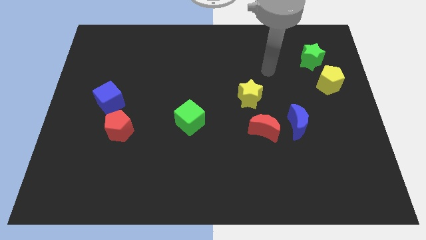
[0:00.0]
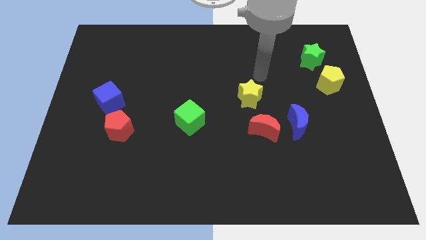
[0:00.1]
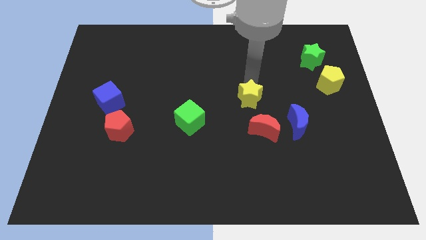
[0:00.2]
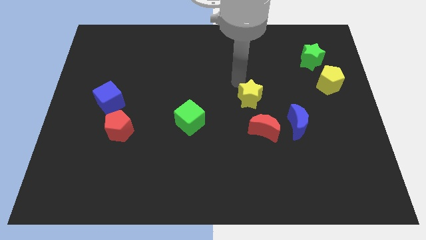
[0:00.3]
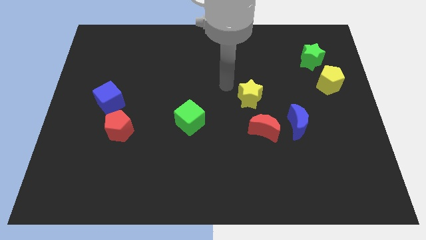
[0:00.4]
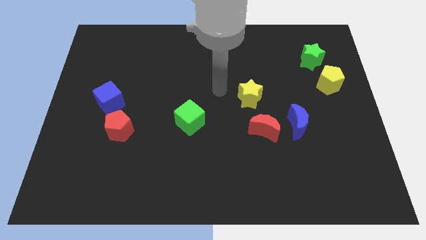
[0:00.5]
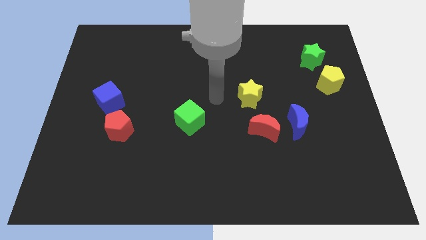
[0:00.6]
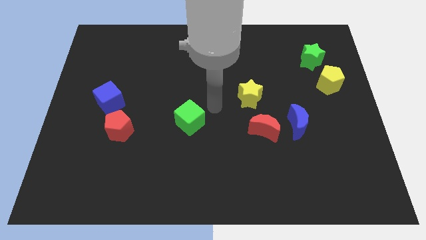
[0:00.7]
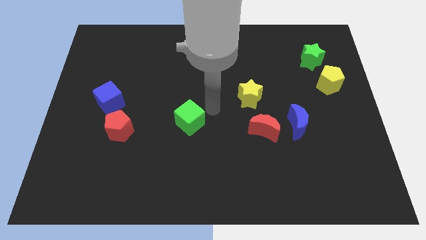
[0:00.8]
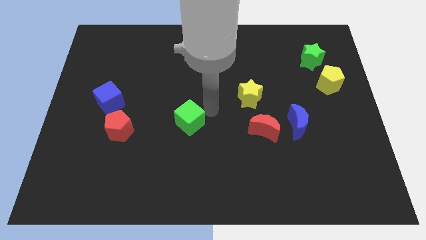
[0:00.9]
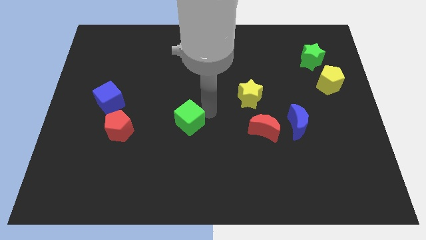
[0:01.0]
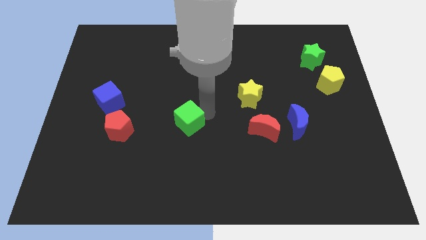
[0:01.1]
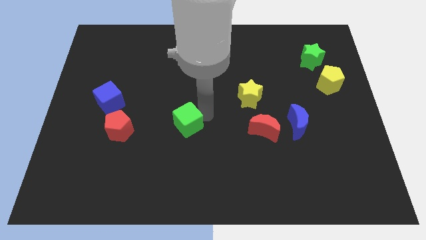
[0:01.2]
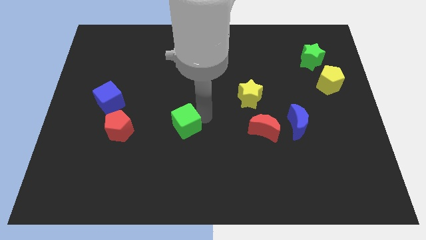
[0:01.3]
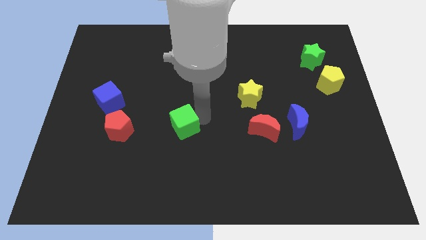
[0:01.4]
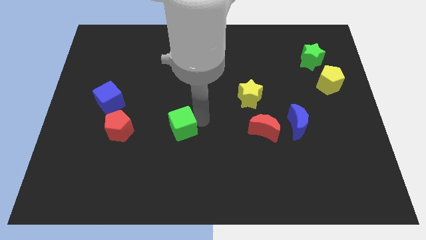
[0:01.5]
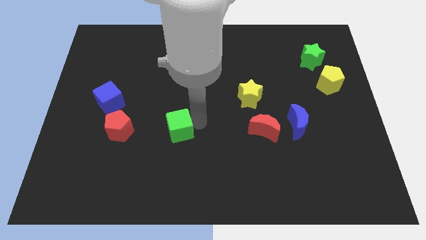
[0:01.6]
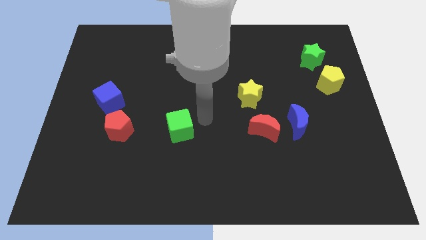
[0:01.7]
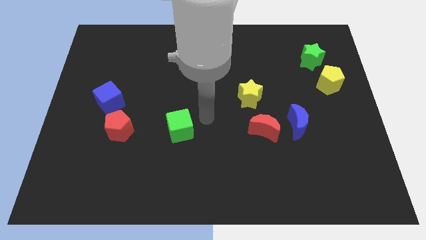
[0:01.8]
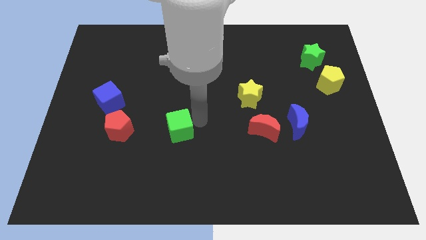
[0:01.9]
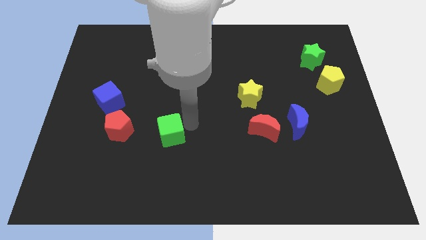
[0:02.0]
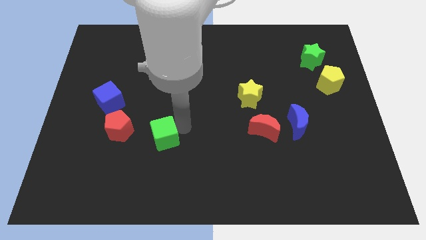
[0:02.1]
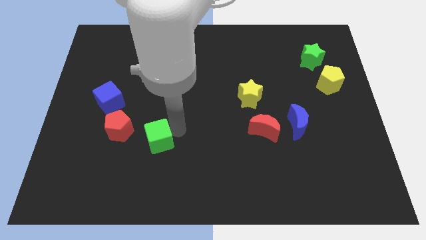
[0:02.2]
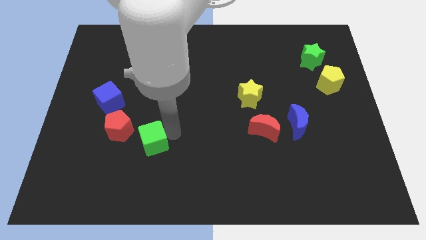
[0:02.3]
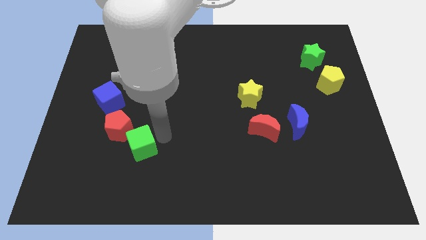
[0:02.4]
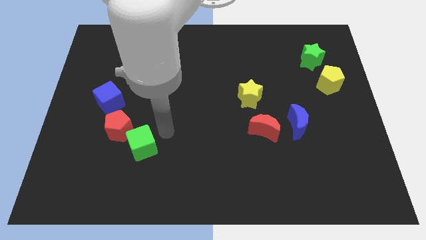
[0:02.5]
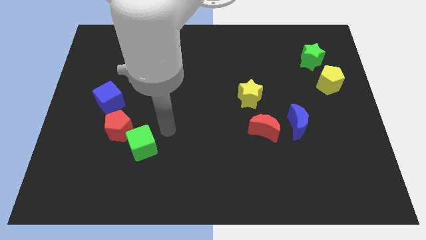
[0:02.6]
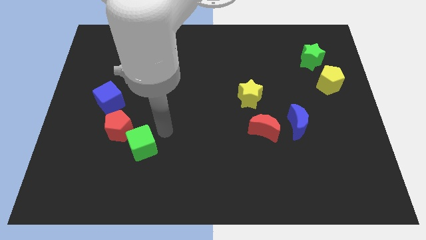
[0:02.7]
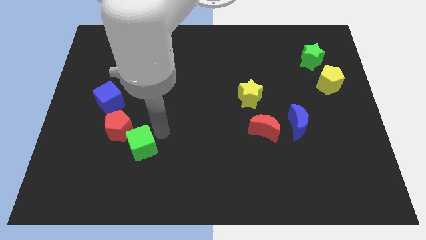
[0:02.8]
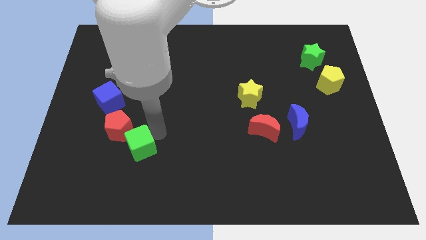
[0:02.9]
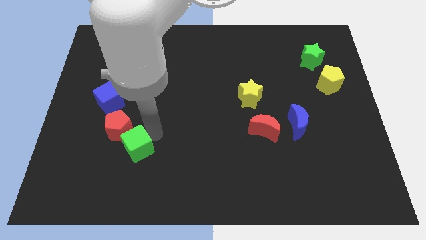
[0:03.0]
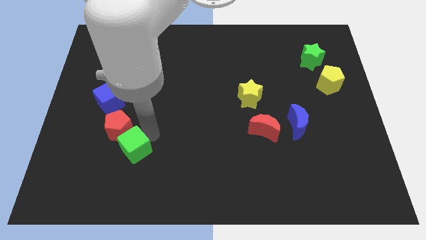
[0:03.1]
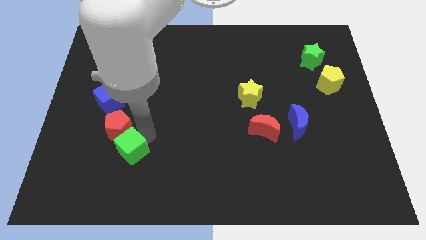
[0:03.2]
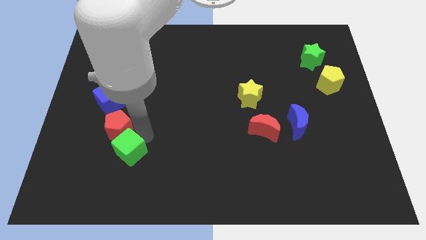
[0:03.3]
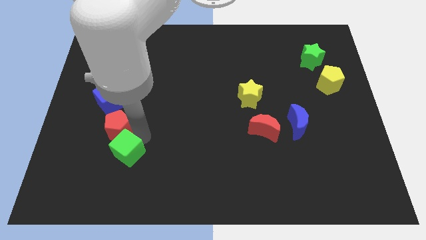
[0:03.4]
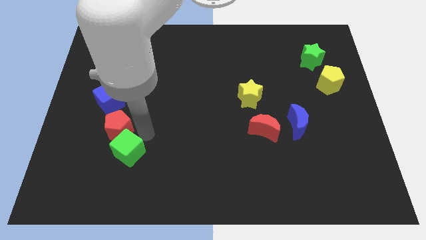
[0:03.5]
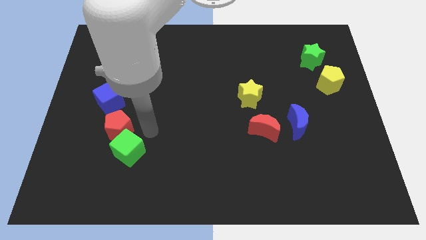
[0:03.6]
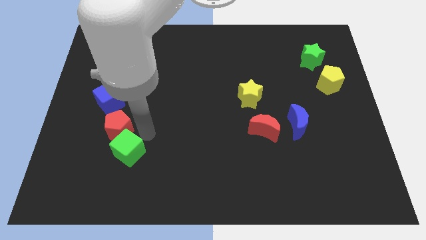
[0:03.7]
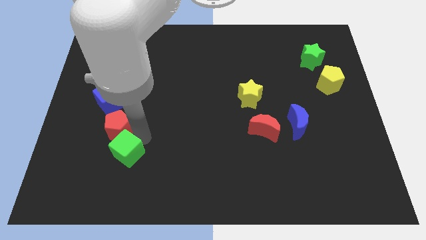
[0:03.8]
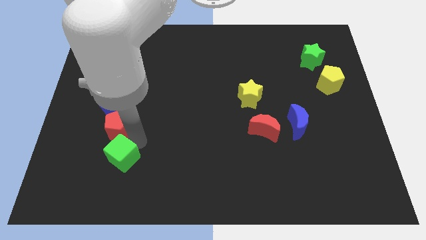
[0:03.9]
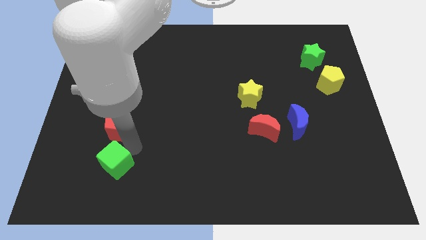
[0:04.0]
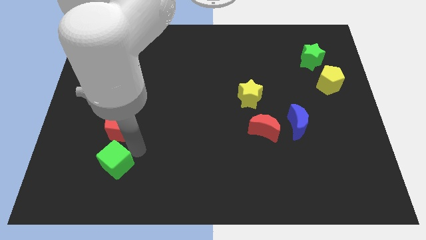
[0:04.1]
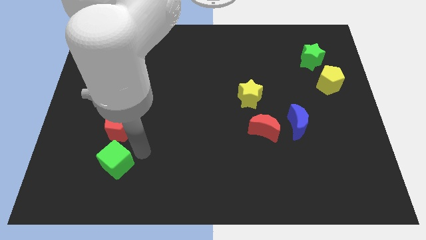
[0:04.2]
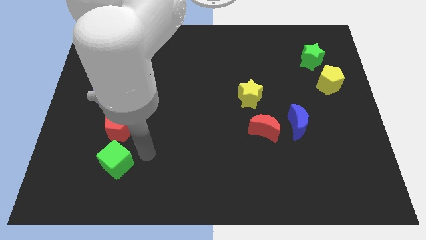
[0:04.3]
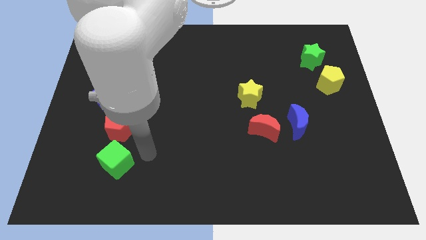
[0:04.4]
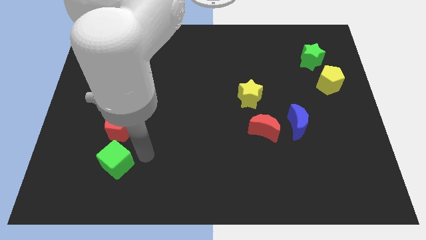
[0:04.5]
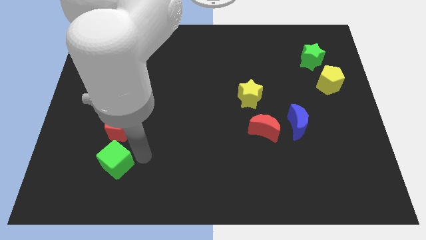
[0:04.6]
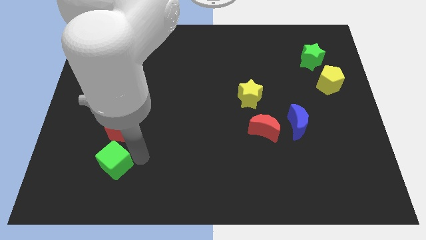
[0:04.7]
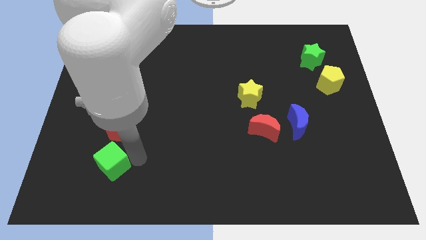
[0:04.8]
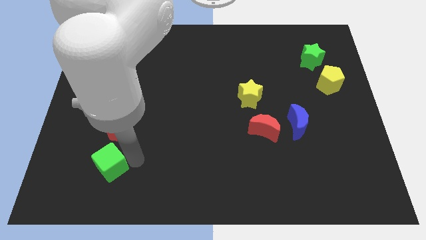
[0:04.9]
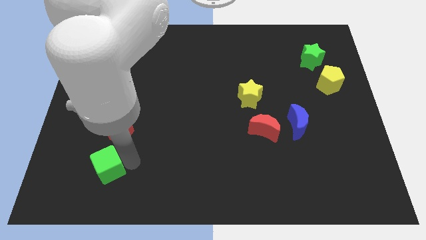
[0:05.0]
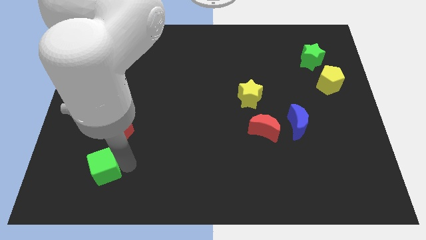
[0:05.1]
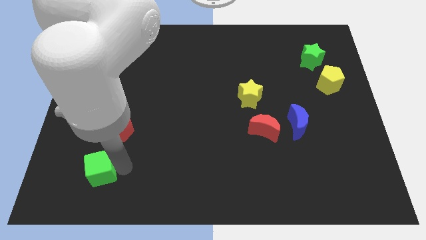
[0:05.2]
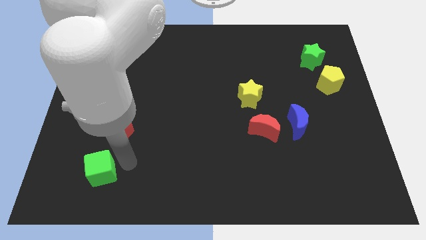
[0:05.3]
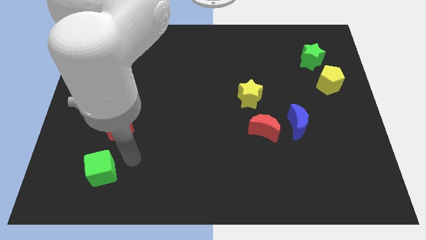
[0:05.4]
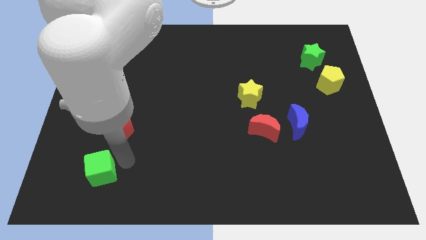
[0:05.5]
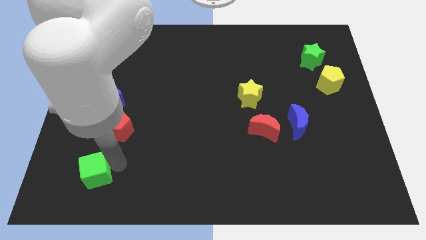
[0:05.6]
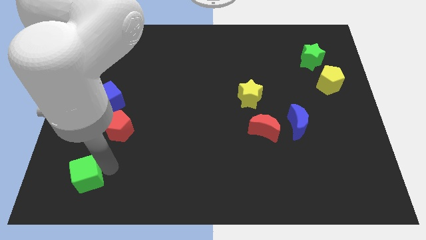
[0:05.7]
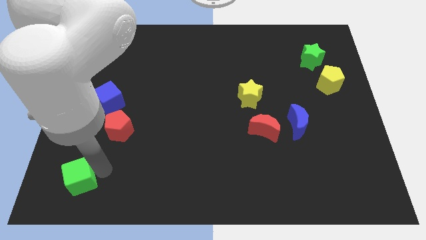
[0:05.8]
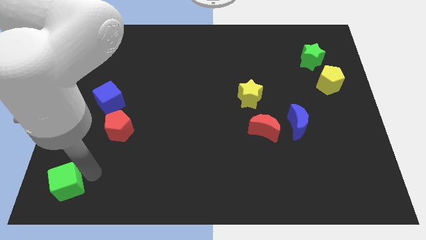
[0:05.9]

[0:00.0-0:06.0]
slide the green cube to the lower left corner

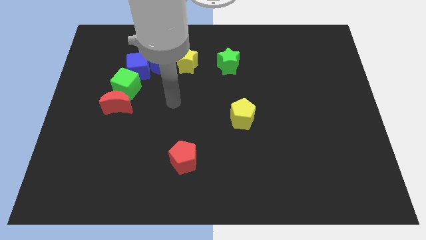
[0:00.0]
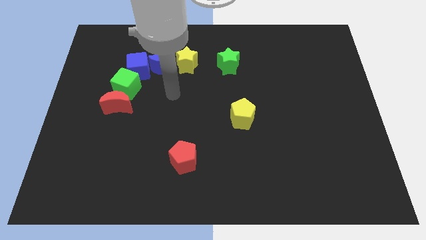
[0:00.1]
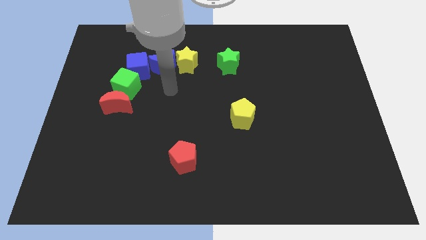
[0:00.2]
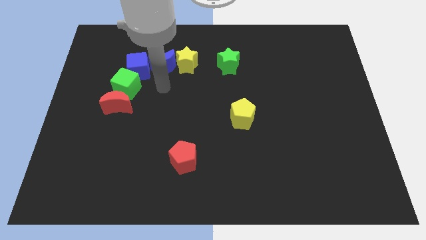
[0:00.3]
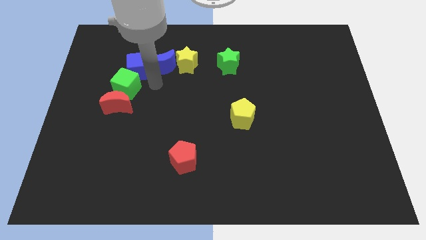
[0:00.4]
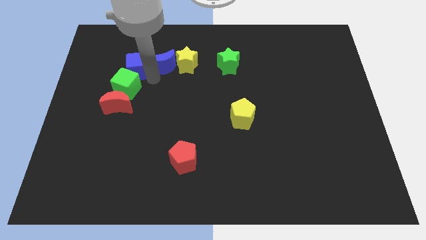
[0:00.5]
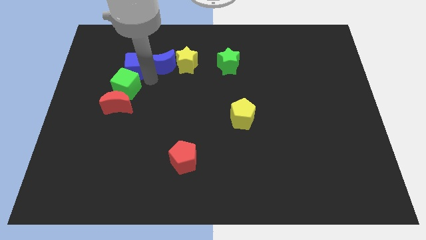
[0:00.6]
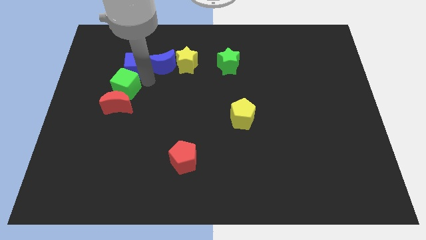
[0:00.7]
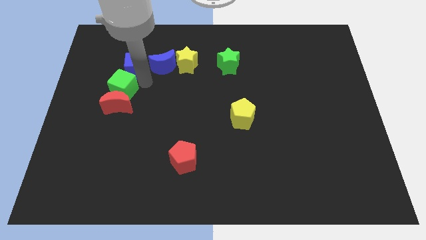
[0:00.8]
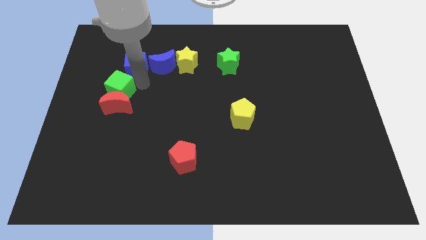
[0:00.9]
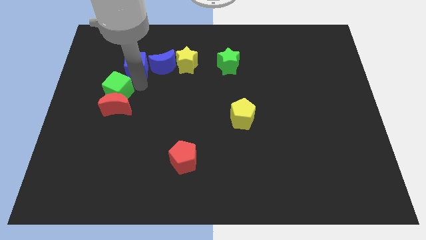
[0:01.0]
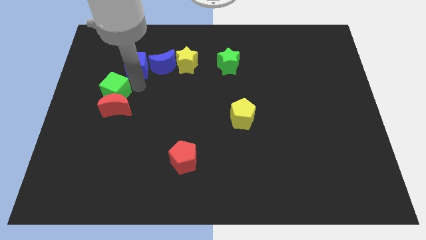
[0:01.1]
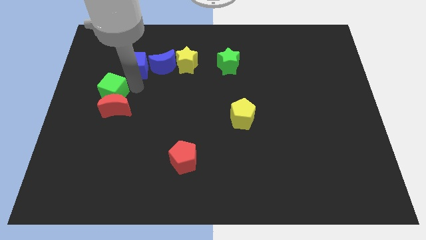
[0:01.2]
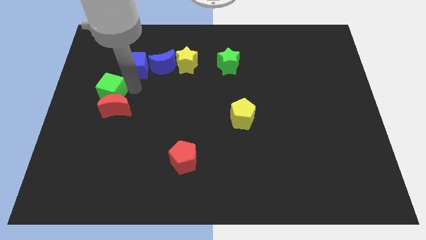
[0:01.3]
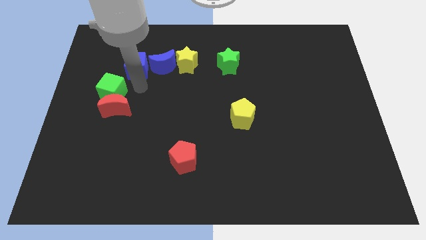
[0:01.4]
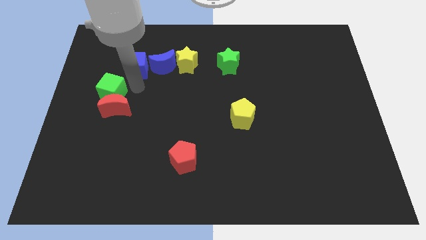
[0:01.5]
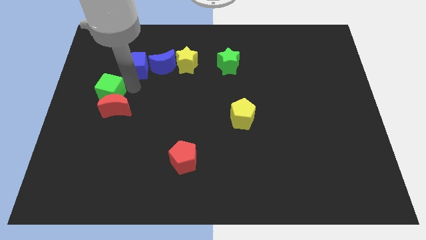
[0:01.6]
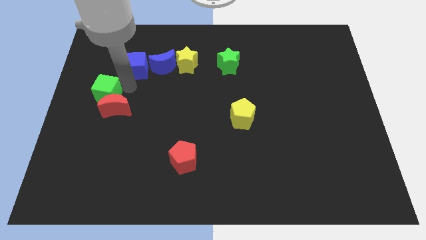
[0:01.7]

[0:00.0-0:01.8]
move the green cube to the left side
